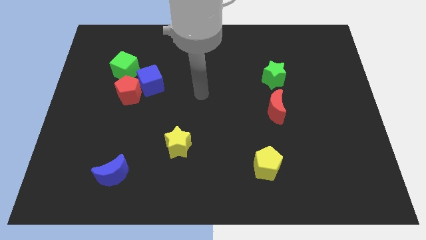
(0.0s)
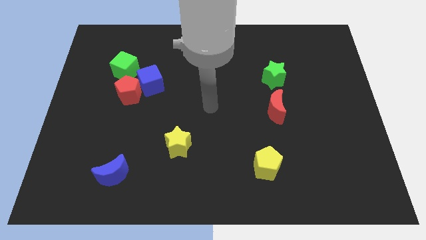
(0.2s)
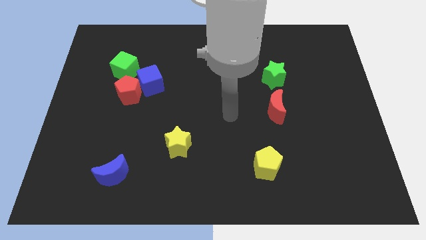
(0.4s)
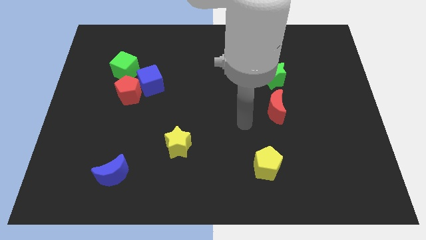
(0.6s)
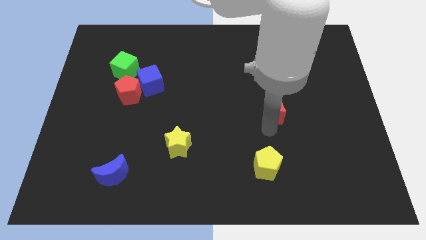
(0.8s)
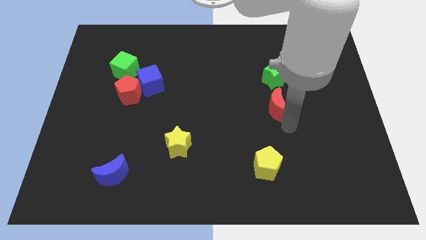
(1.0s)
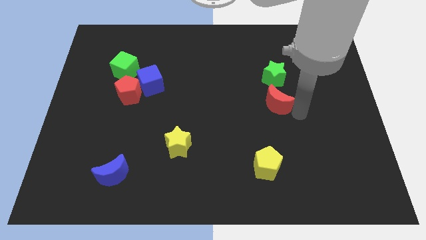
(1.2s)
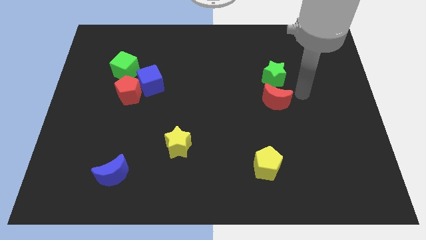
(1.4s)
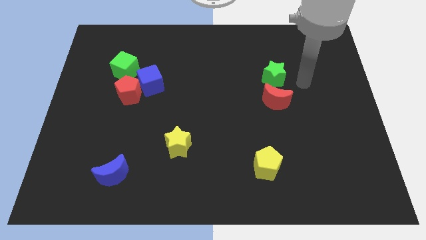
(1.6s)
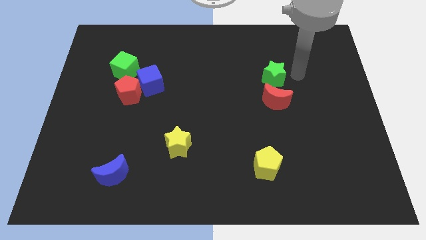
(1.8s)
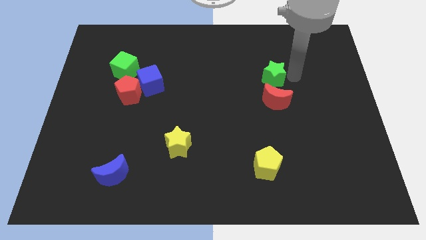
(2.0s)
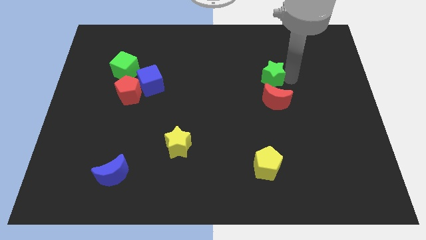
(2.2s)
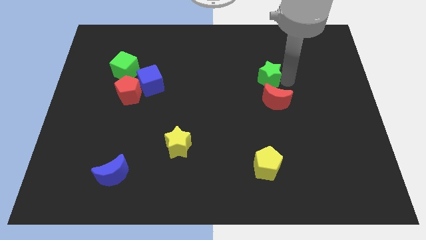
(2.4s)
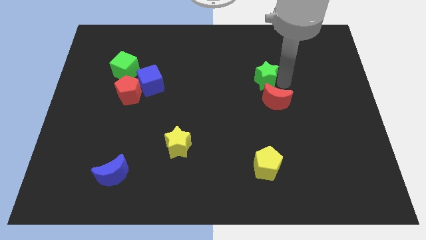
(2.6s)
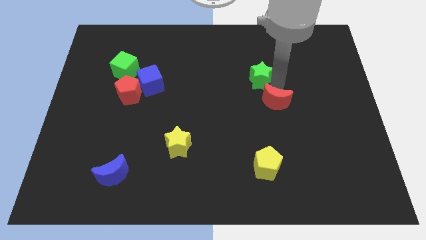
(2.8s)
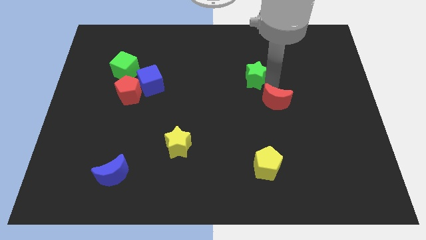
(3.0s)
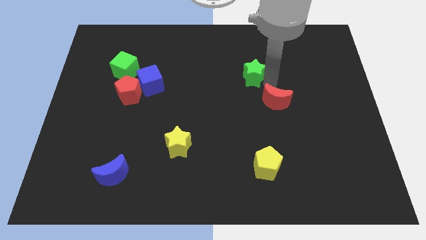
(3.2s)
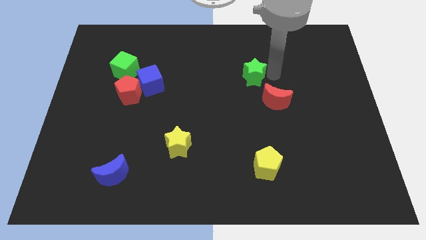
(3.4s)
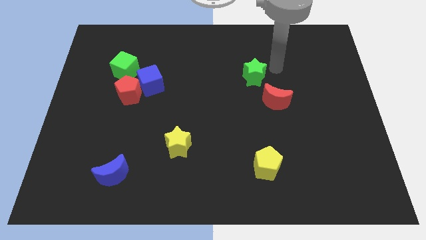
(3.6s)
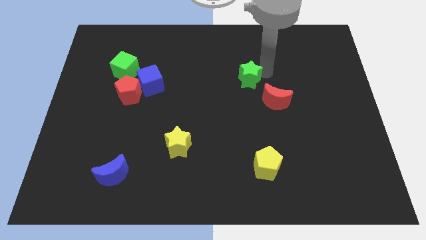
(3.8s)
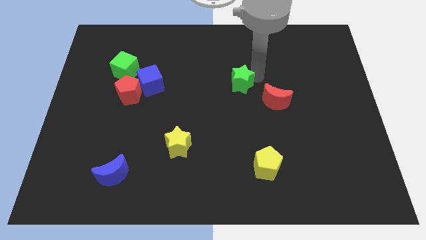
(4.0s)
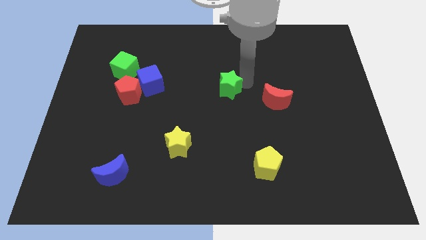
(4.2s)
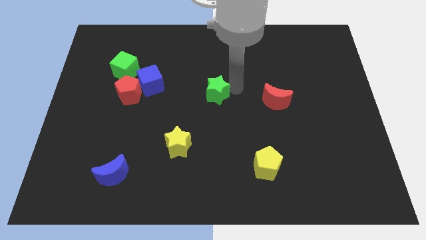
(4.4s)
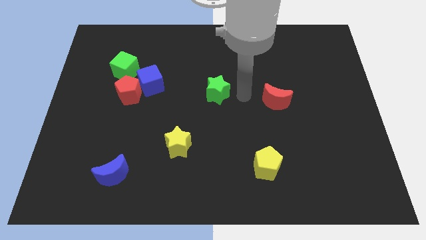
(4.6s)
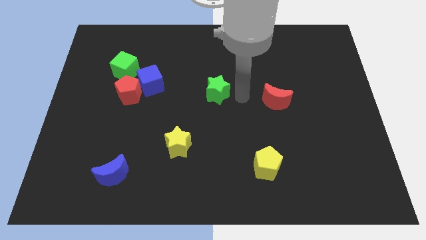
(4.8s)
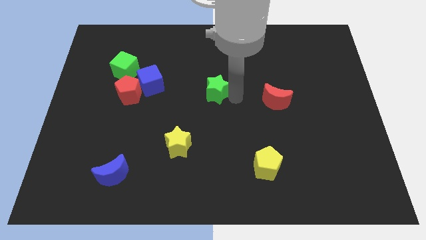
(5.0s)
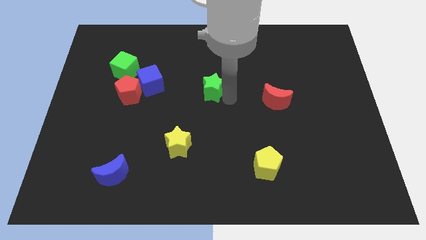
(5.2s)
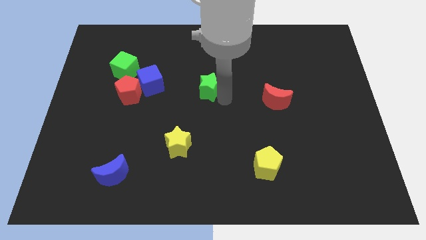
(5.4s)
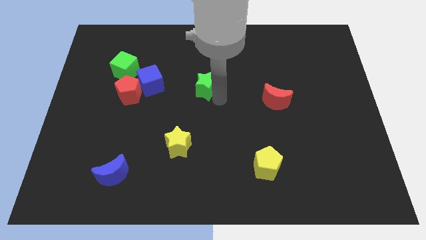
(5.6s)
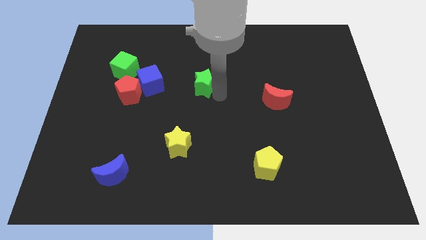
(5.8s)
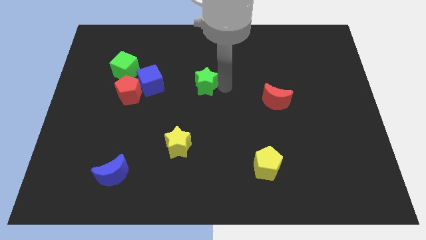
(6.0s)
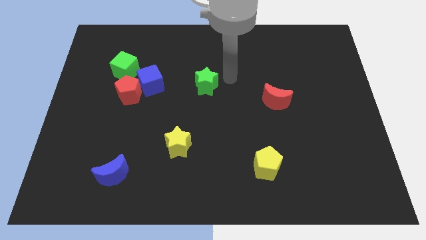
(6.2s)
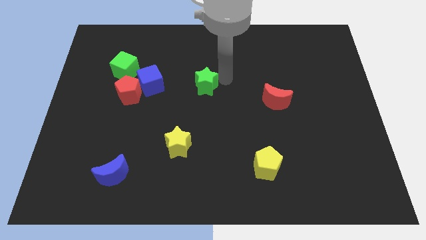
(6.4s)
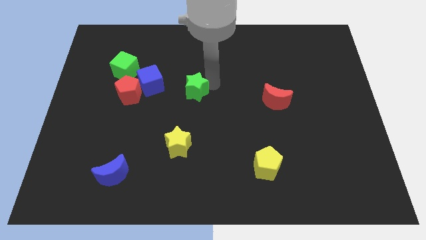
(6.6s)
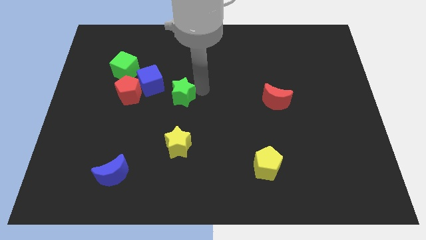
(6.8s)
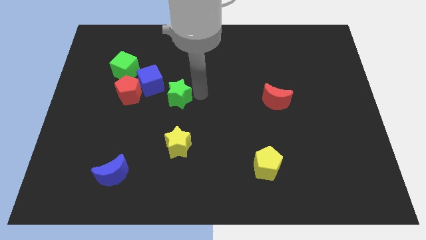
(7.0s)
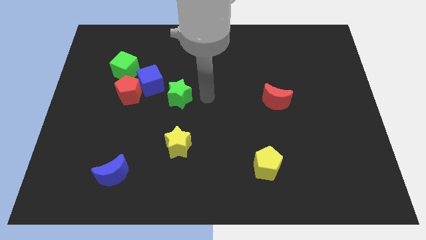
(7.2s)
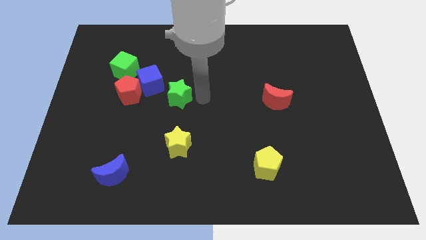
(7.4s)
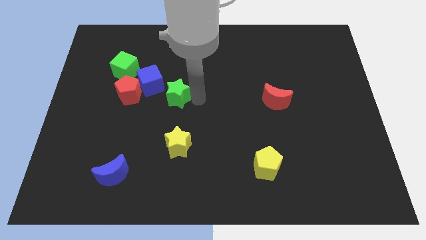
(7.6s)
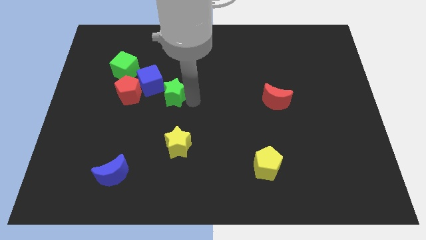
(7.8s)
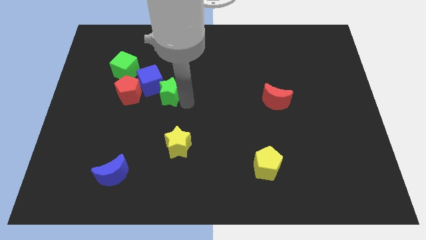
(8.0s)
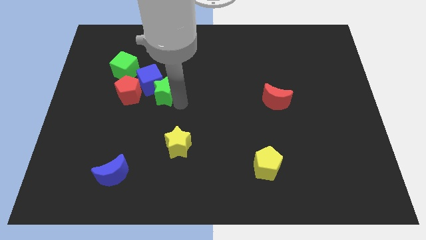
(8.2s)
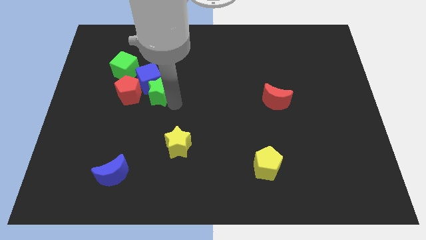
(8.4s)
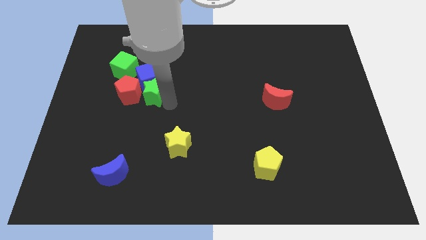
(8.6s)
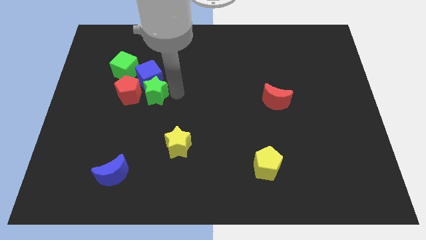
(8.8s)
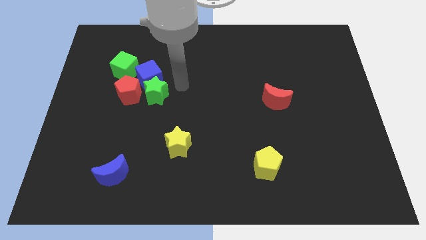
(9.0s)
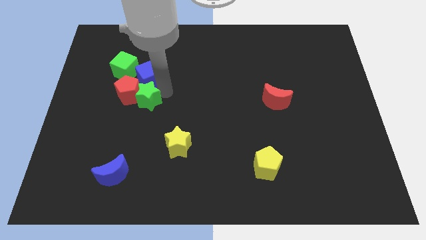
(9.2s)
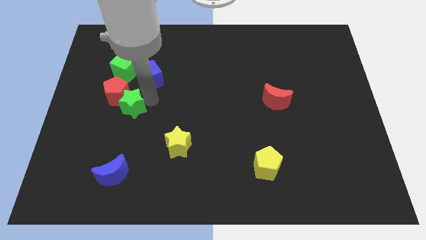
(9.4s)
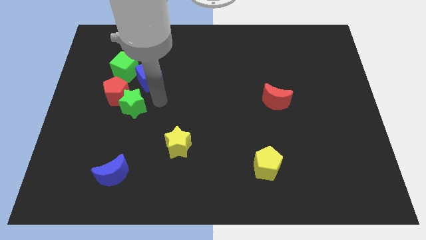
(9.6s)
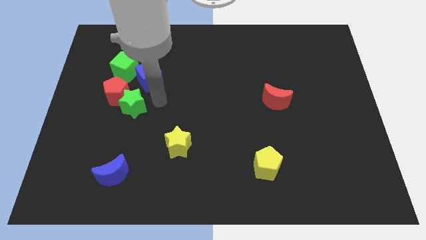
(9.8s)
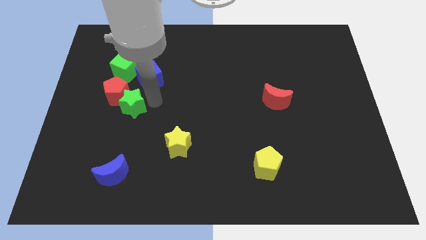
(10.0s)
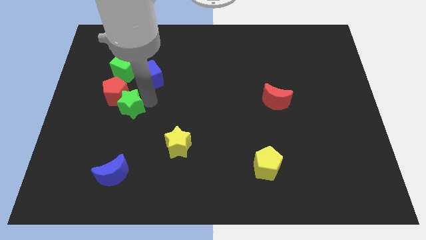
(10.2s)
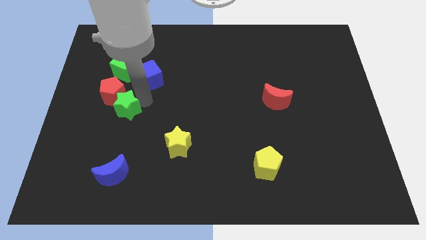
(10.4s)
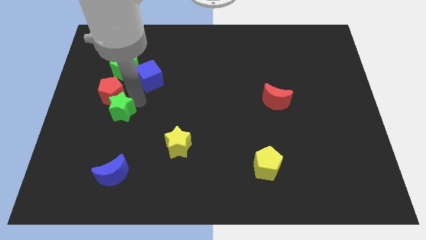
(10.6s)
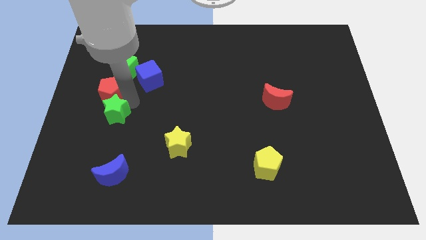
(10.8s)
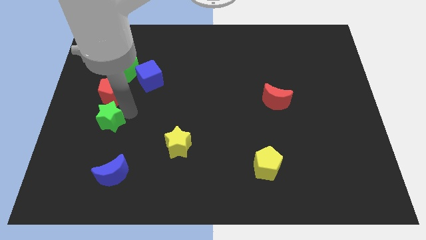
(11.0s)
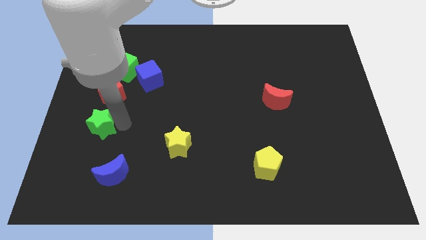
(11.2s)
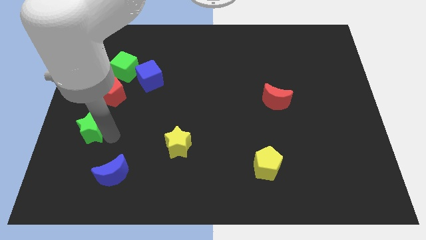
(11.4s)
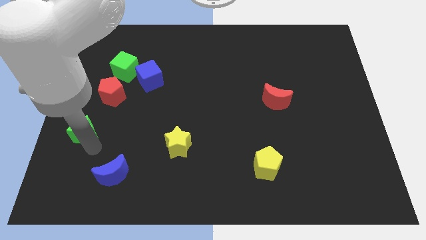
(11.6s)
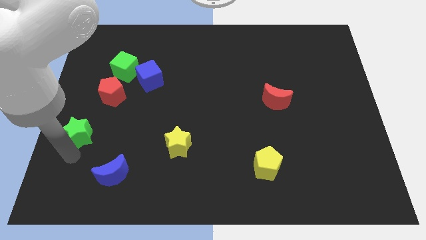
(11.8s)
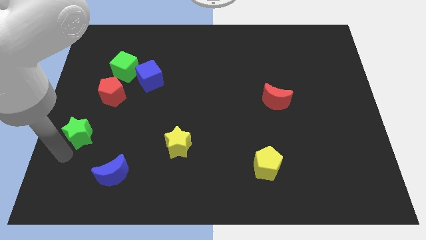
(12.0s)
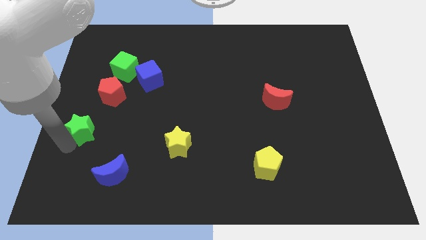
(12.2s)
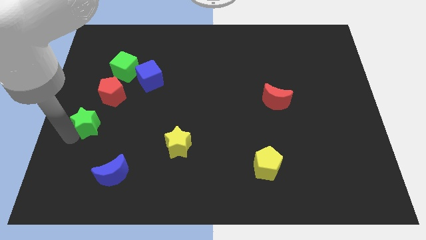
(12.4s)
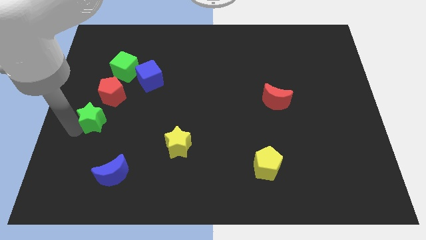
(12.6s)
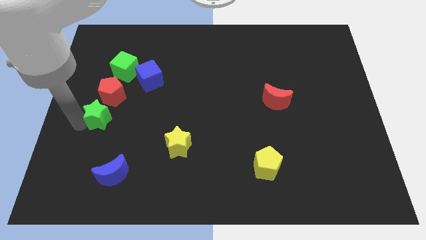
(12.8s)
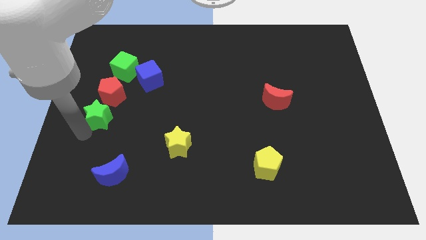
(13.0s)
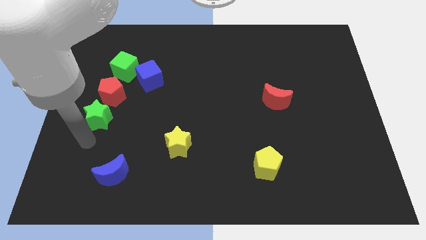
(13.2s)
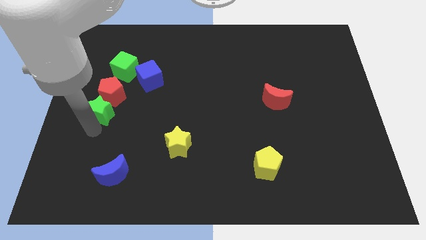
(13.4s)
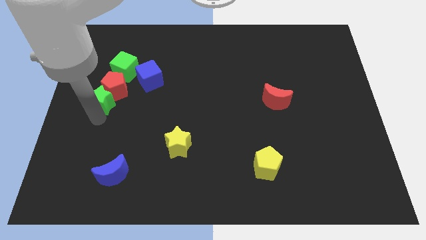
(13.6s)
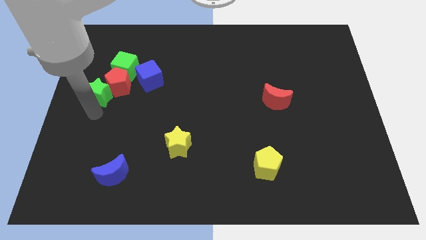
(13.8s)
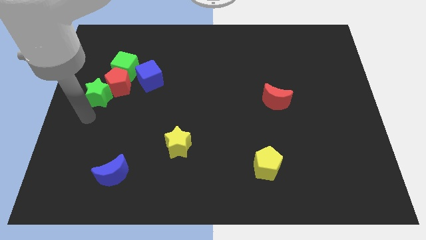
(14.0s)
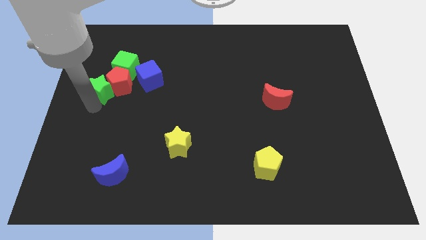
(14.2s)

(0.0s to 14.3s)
put the green star left of the blue cube
